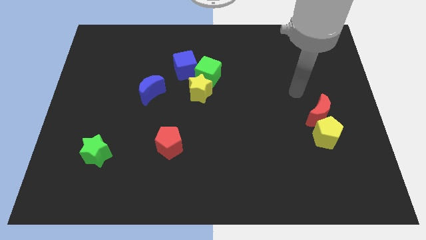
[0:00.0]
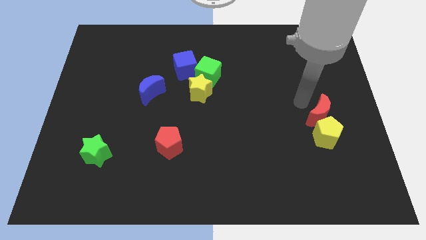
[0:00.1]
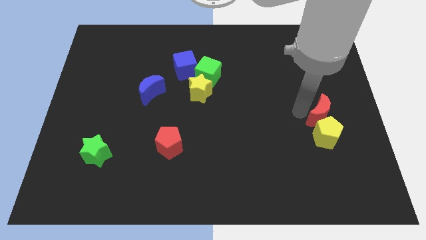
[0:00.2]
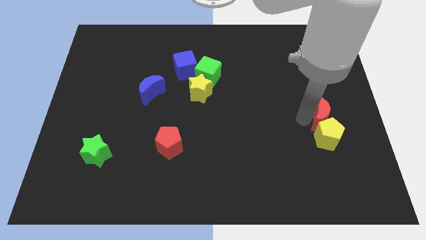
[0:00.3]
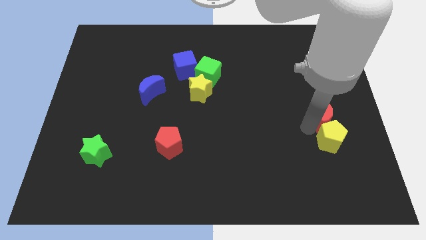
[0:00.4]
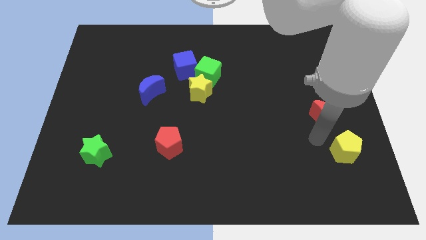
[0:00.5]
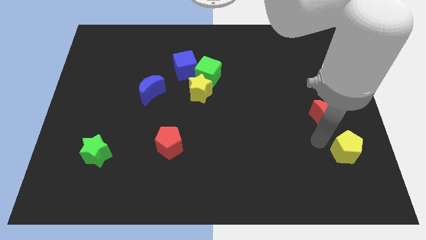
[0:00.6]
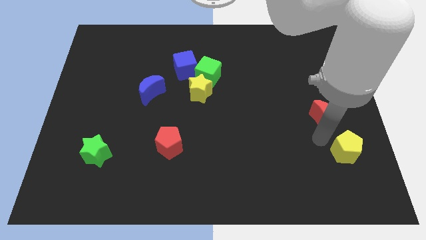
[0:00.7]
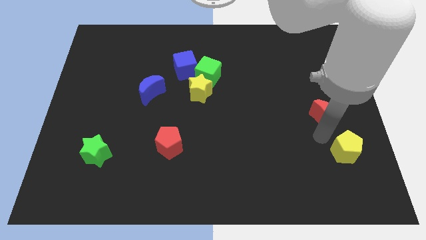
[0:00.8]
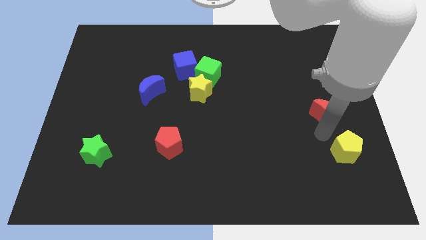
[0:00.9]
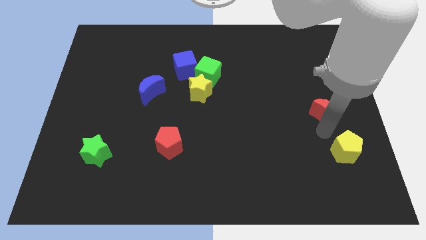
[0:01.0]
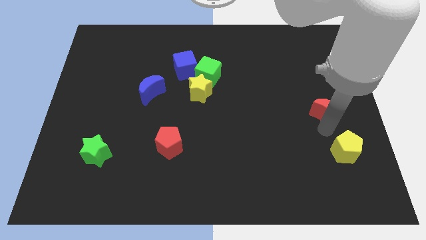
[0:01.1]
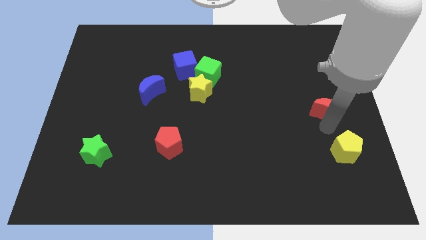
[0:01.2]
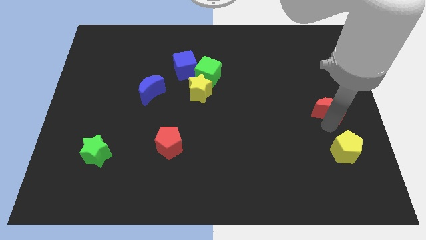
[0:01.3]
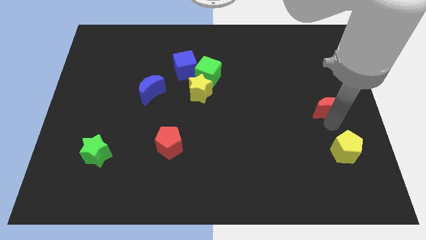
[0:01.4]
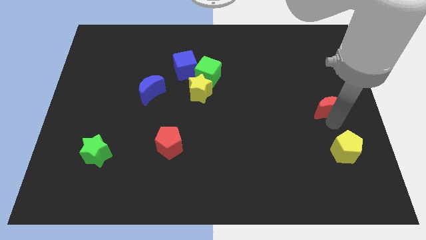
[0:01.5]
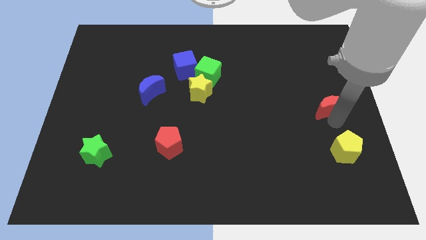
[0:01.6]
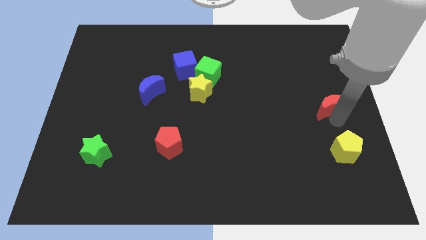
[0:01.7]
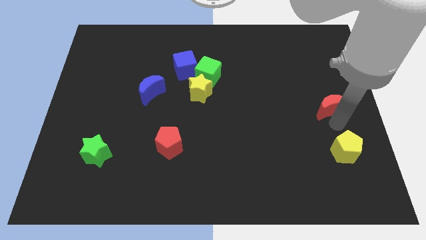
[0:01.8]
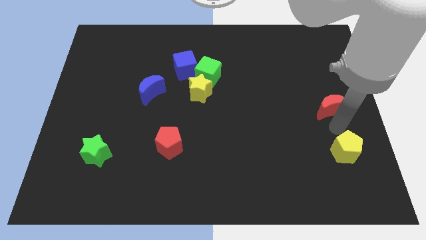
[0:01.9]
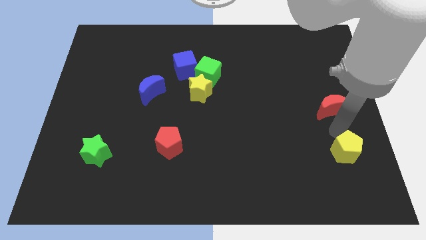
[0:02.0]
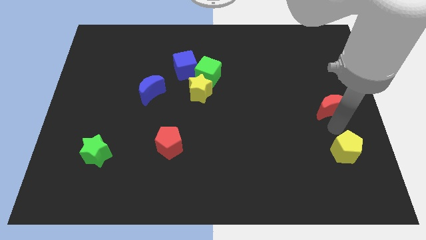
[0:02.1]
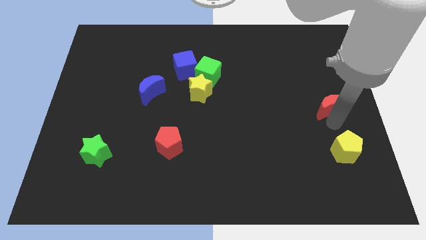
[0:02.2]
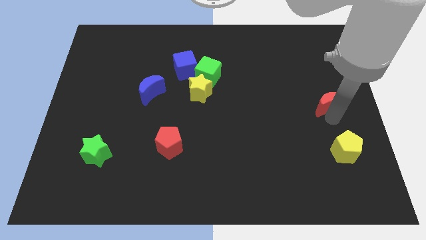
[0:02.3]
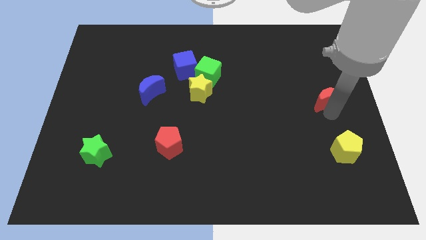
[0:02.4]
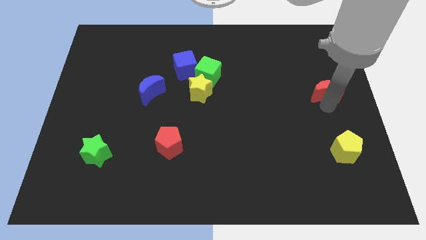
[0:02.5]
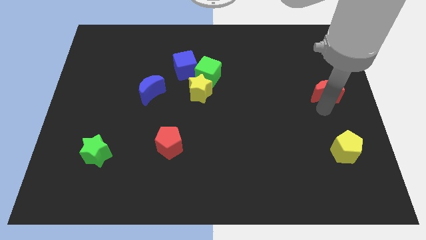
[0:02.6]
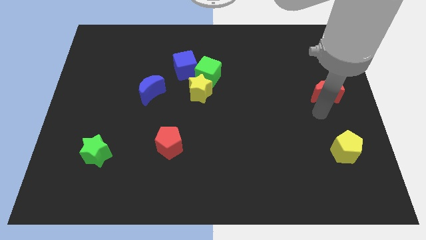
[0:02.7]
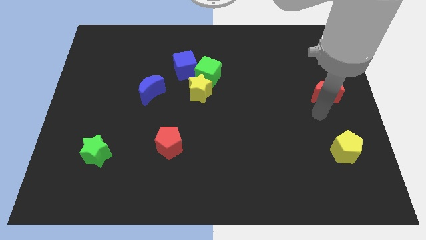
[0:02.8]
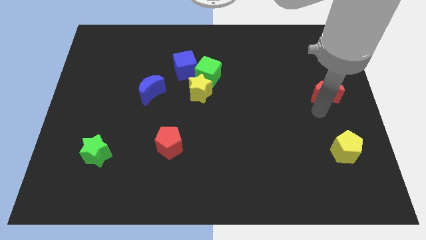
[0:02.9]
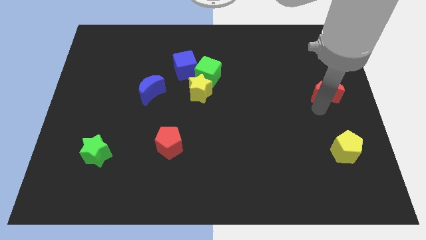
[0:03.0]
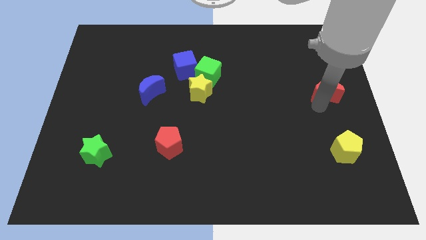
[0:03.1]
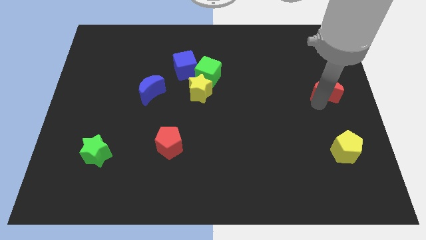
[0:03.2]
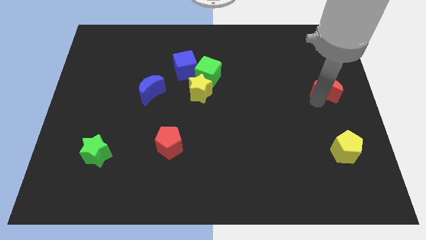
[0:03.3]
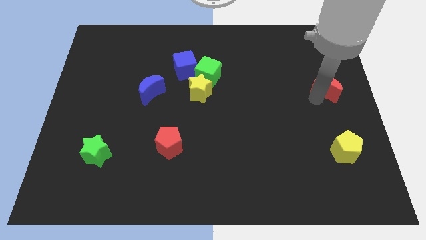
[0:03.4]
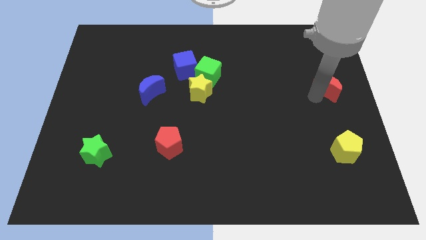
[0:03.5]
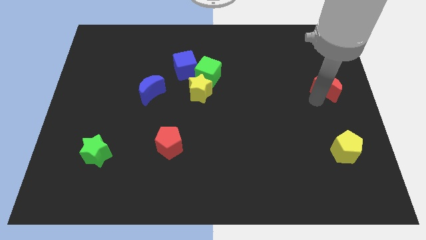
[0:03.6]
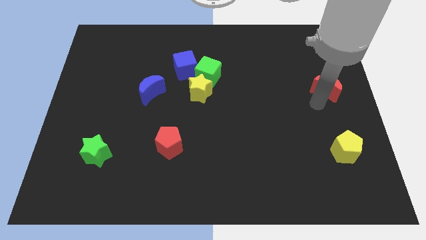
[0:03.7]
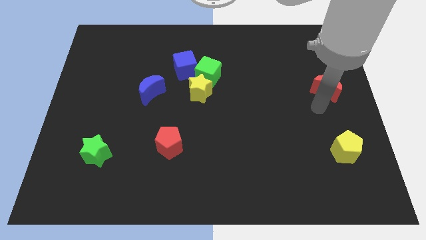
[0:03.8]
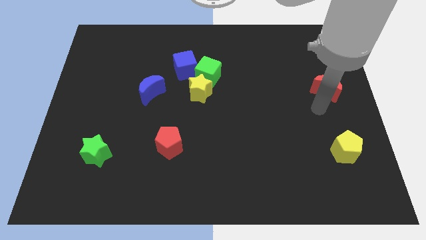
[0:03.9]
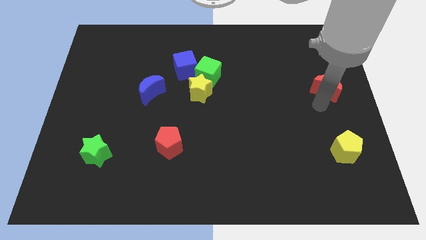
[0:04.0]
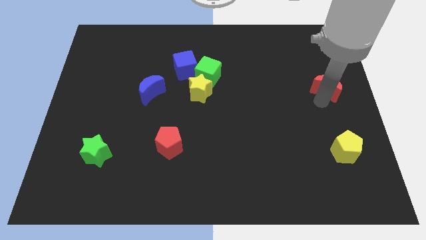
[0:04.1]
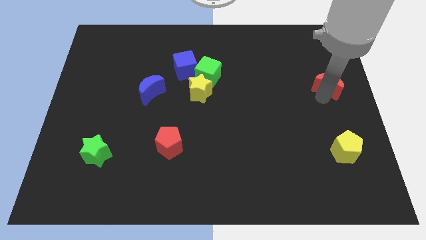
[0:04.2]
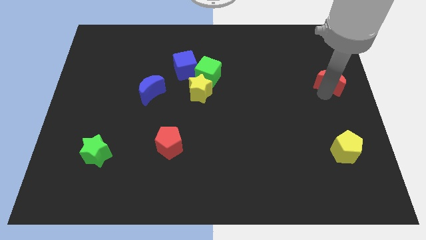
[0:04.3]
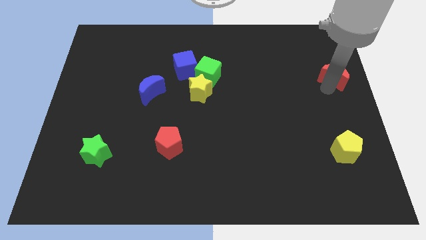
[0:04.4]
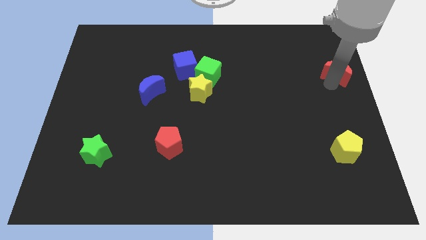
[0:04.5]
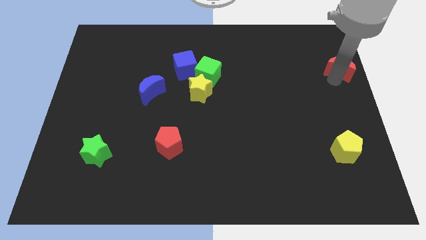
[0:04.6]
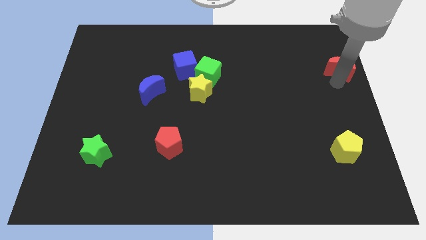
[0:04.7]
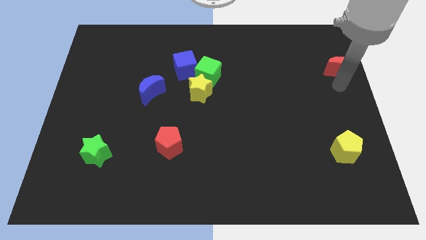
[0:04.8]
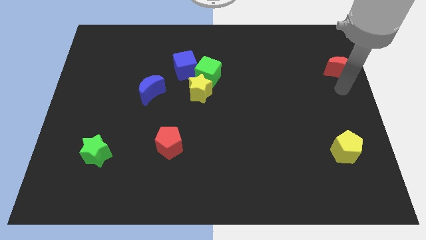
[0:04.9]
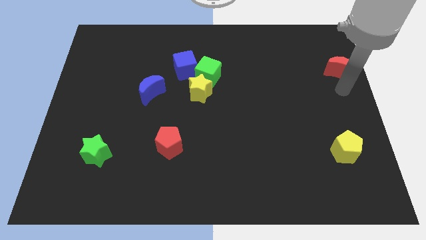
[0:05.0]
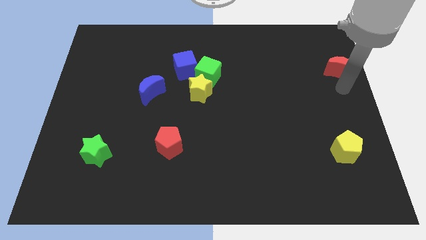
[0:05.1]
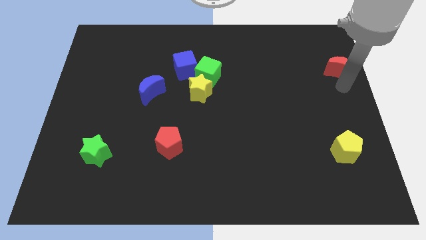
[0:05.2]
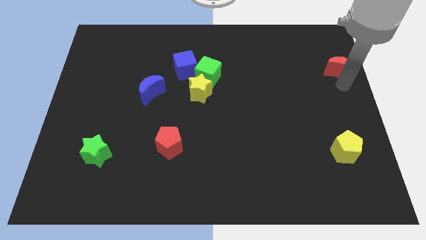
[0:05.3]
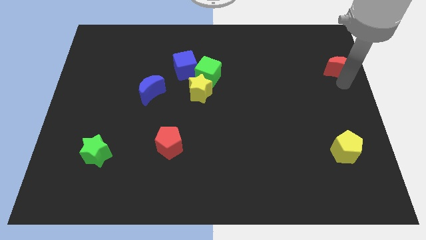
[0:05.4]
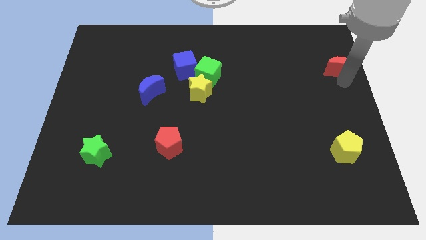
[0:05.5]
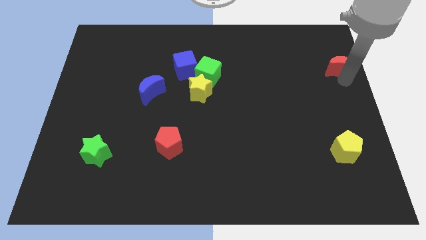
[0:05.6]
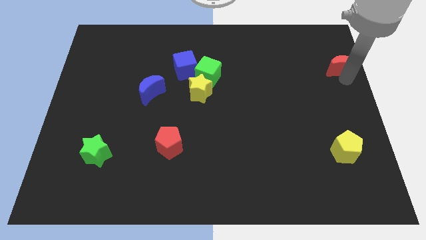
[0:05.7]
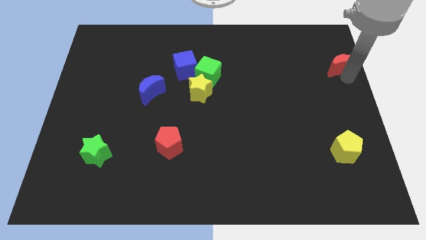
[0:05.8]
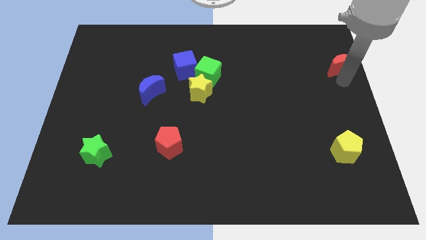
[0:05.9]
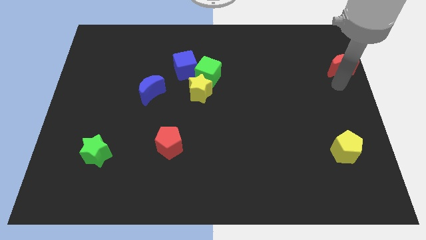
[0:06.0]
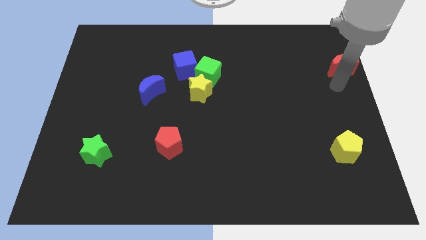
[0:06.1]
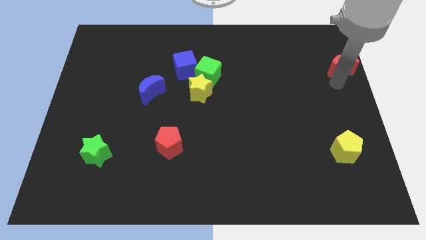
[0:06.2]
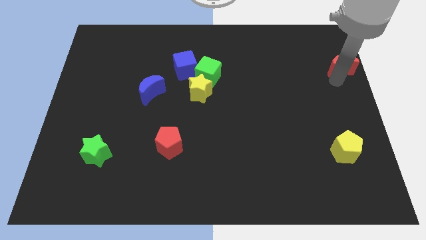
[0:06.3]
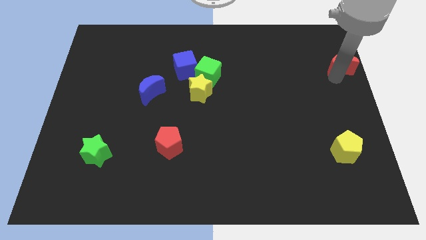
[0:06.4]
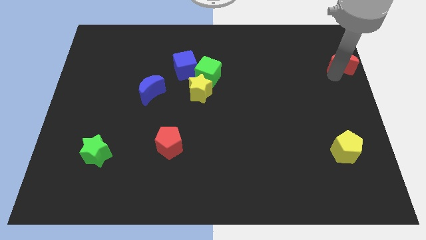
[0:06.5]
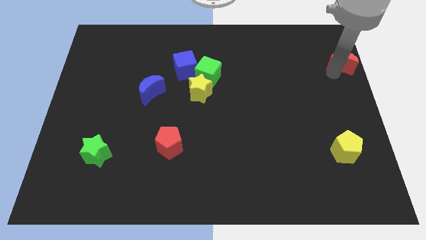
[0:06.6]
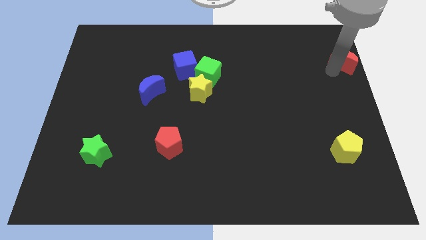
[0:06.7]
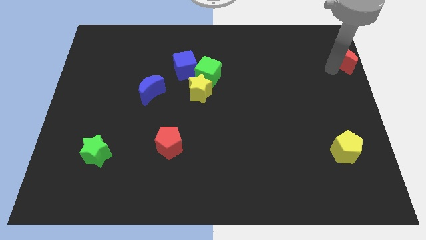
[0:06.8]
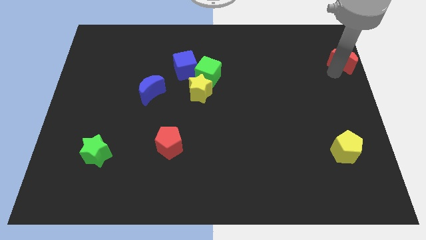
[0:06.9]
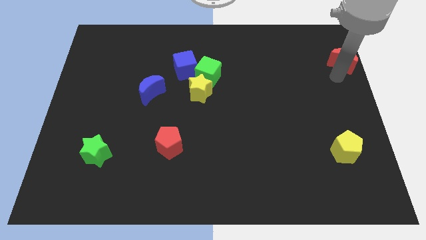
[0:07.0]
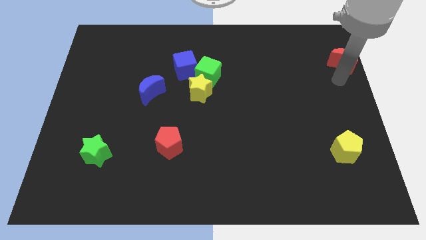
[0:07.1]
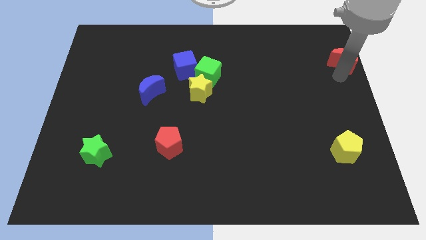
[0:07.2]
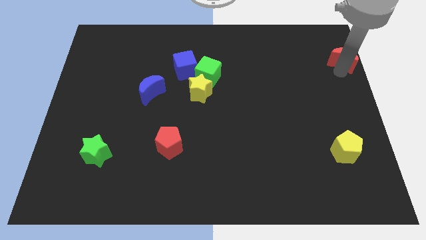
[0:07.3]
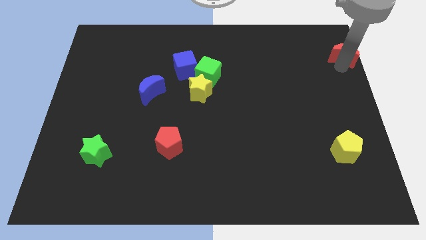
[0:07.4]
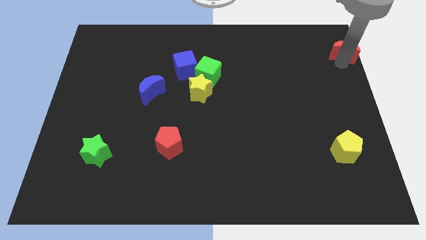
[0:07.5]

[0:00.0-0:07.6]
move the red moon to the top right corner
